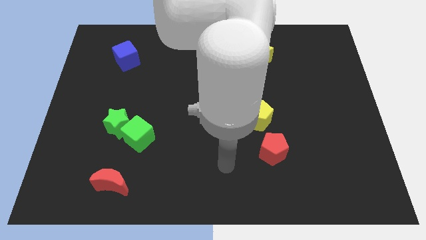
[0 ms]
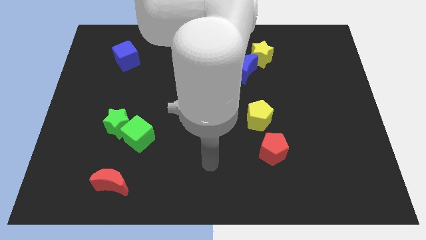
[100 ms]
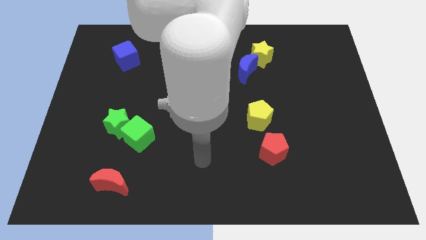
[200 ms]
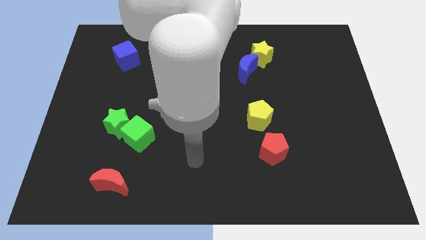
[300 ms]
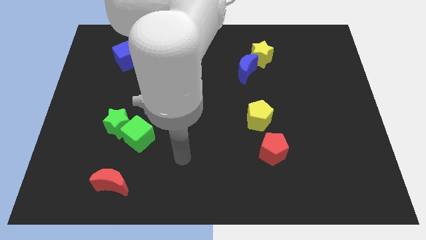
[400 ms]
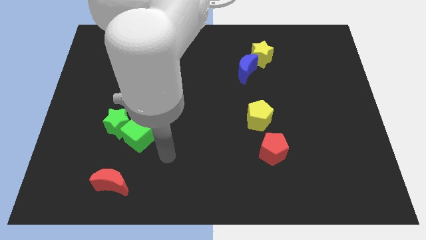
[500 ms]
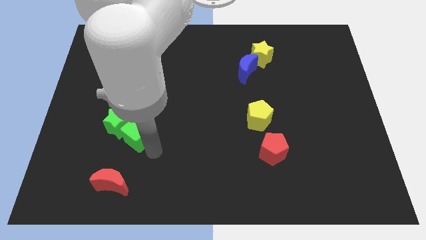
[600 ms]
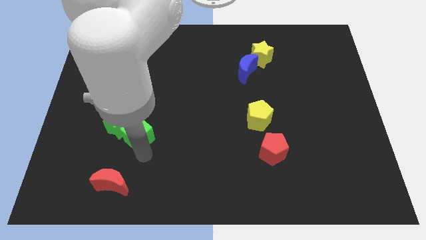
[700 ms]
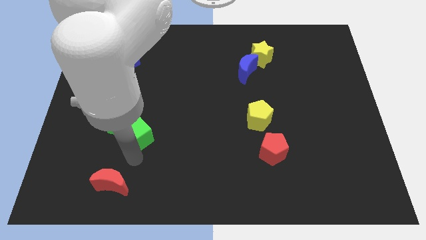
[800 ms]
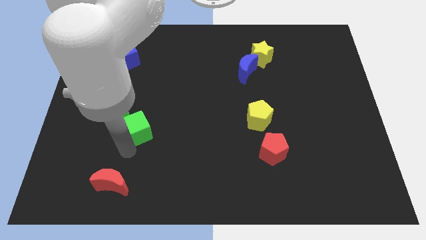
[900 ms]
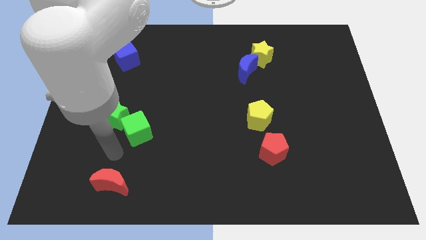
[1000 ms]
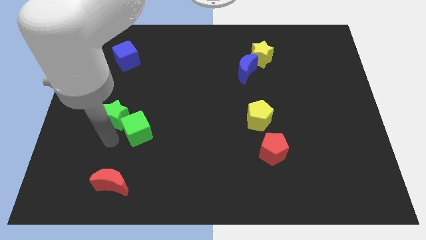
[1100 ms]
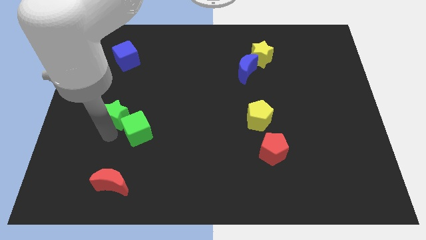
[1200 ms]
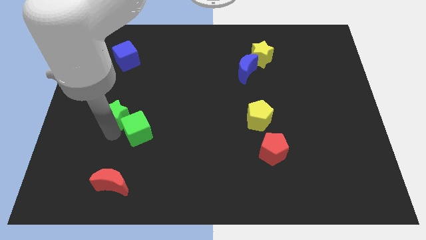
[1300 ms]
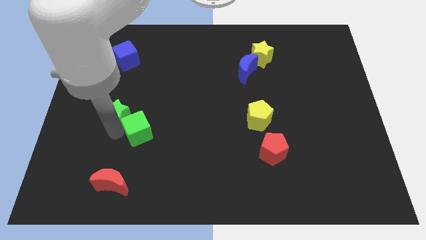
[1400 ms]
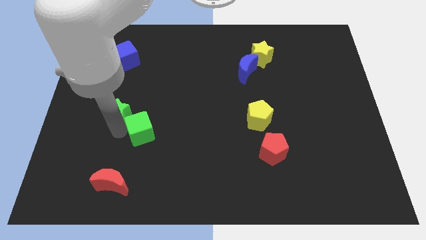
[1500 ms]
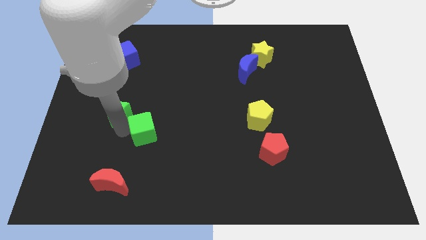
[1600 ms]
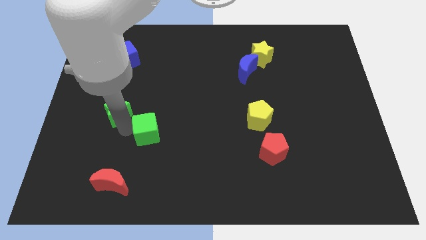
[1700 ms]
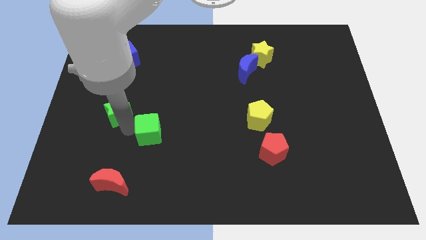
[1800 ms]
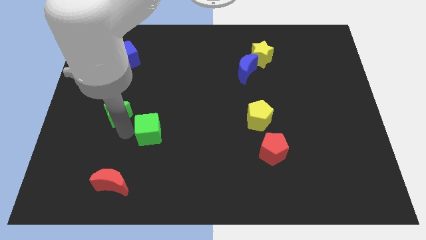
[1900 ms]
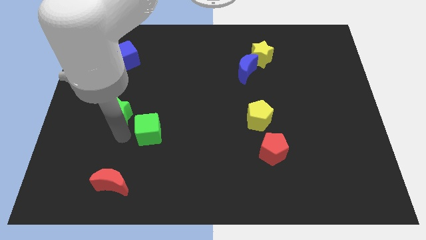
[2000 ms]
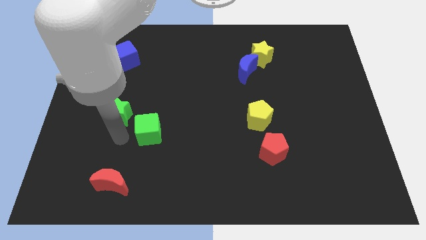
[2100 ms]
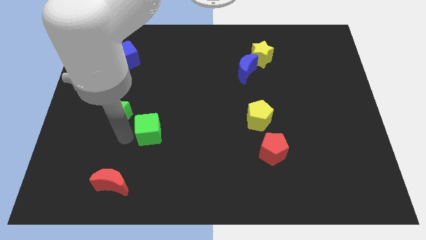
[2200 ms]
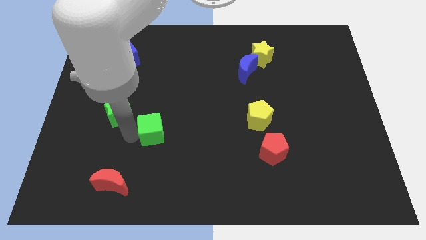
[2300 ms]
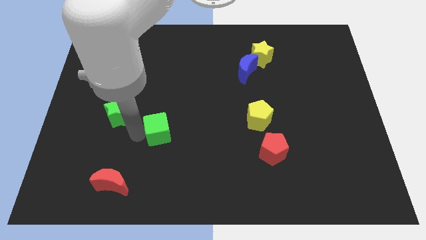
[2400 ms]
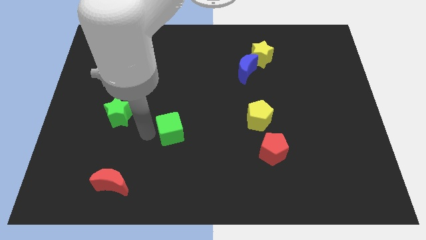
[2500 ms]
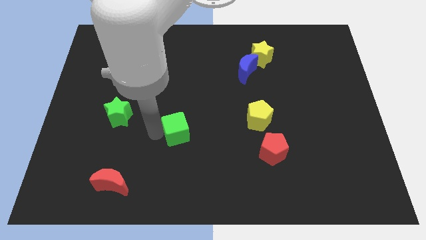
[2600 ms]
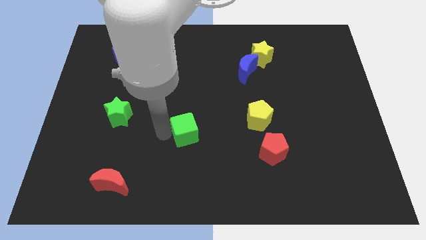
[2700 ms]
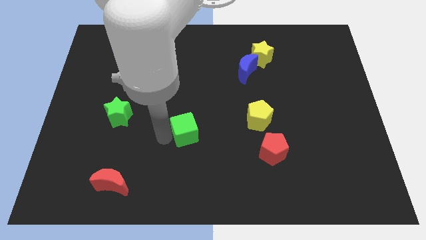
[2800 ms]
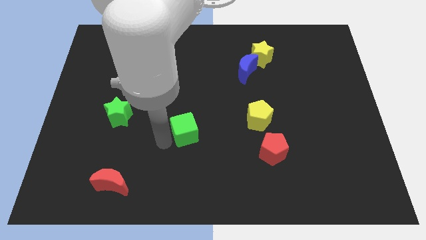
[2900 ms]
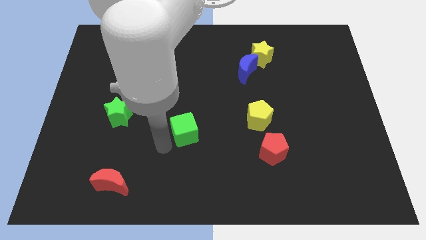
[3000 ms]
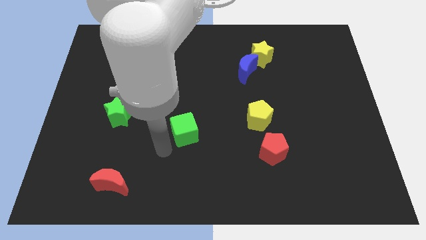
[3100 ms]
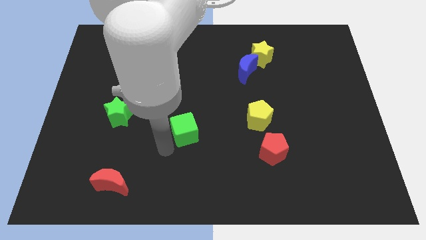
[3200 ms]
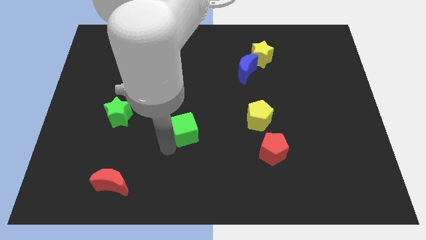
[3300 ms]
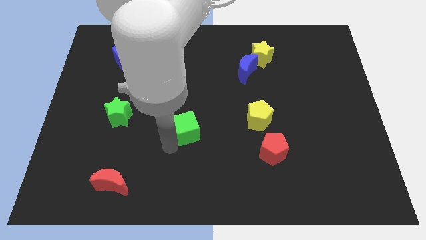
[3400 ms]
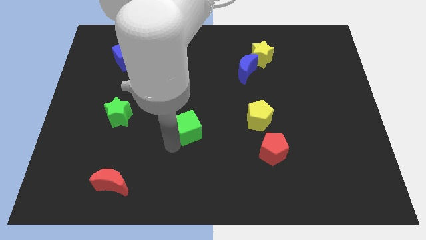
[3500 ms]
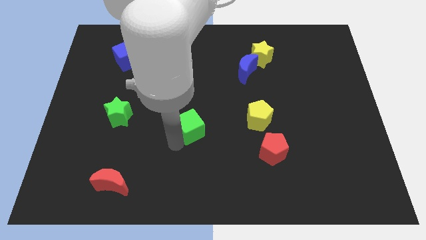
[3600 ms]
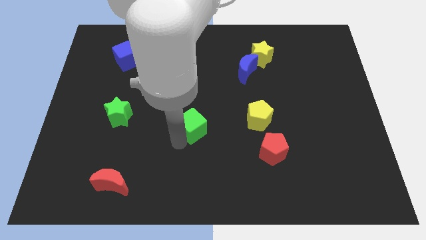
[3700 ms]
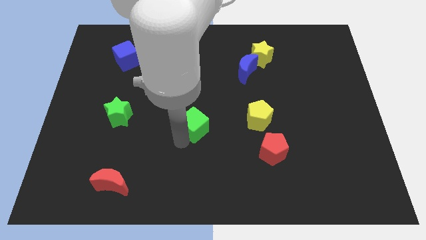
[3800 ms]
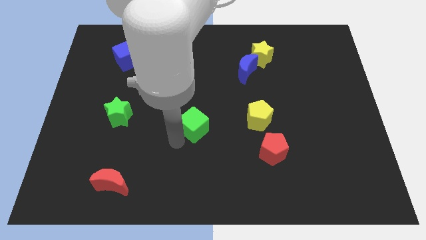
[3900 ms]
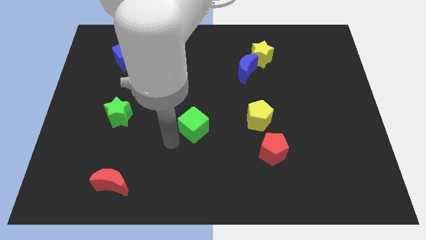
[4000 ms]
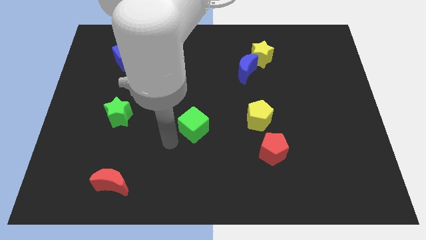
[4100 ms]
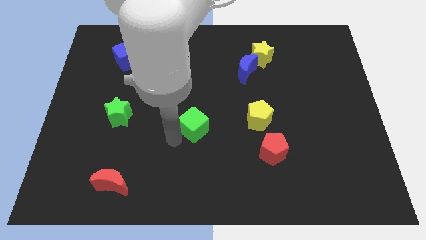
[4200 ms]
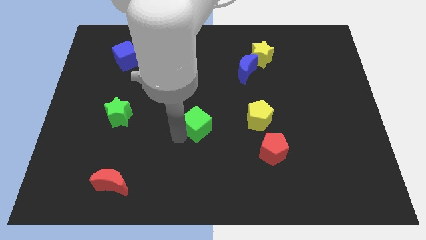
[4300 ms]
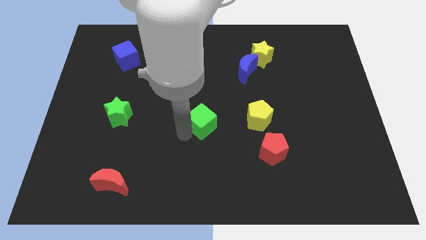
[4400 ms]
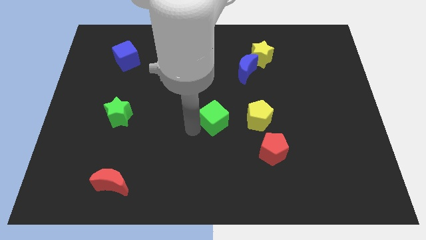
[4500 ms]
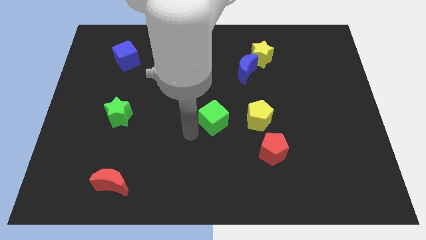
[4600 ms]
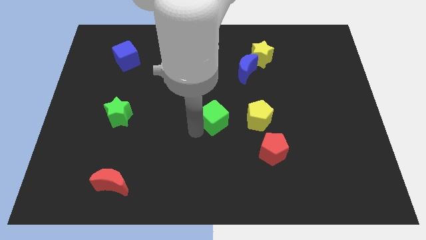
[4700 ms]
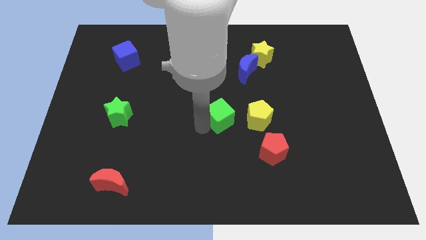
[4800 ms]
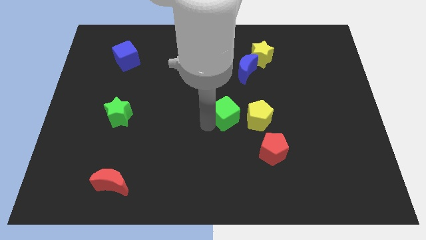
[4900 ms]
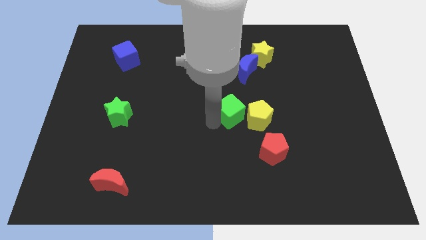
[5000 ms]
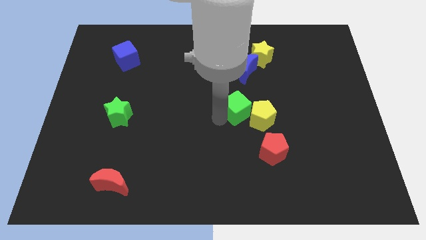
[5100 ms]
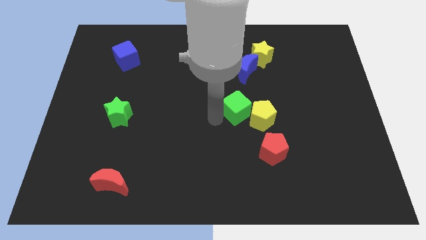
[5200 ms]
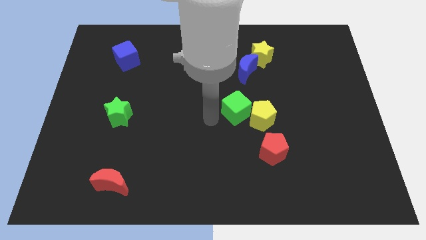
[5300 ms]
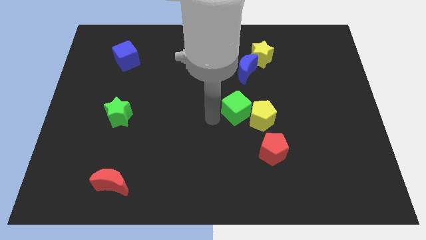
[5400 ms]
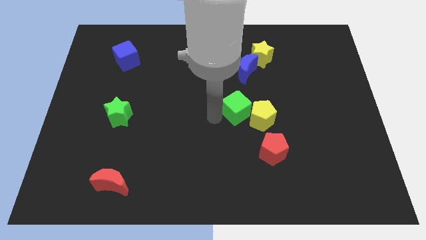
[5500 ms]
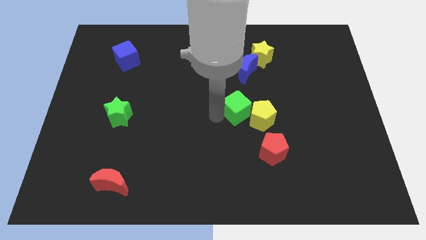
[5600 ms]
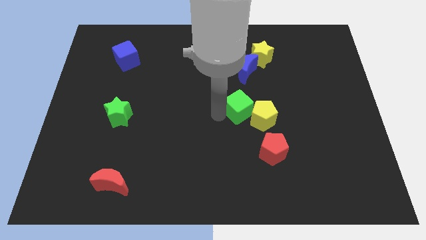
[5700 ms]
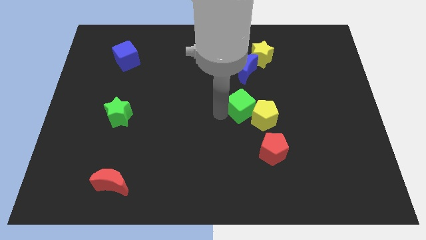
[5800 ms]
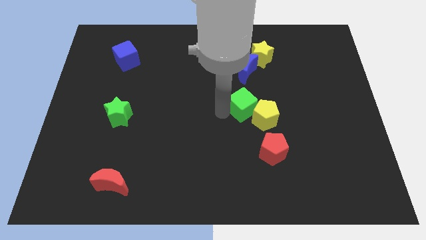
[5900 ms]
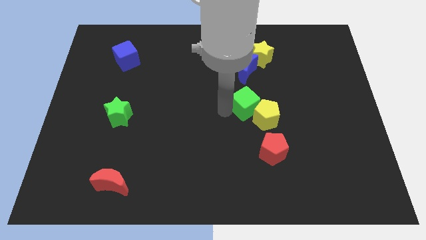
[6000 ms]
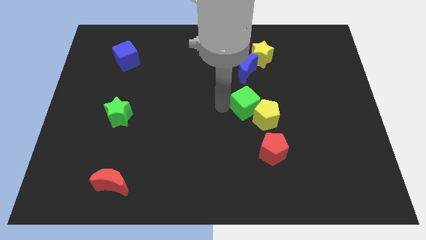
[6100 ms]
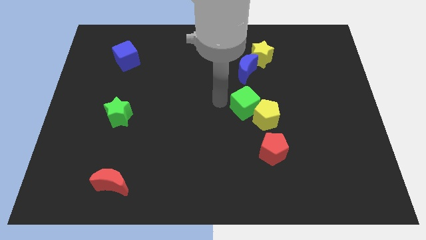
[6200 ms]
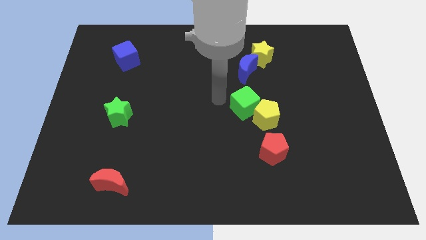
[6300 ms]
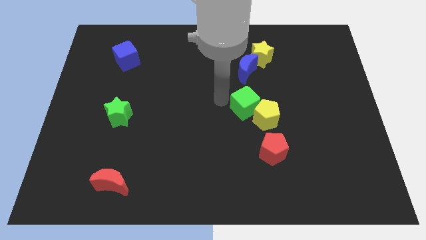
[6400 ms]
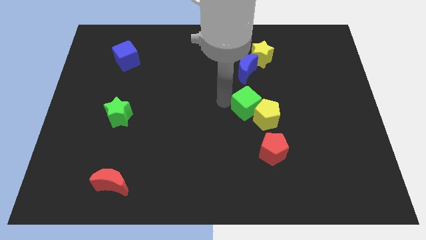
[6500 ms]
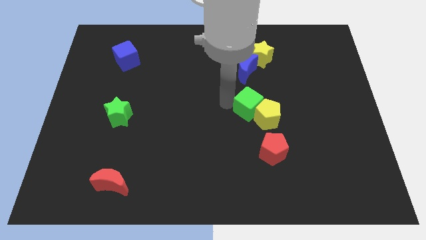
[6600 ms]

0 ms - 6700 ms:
slide the green cube above the red pentagon

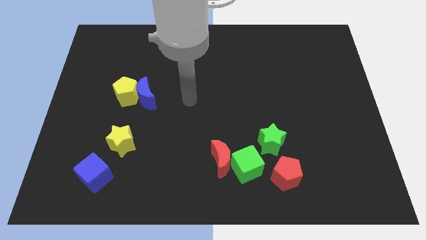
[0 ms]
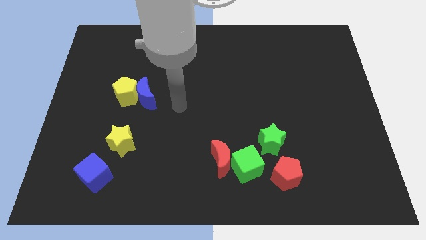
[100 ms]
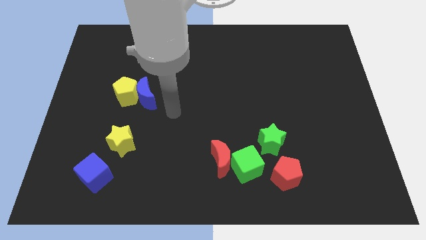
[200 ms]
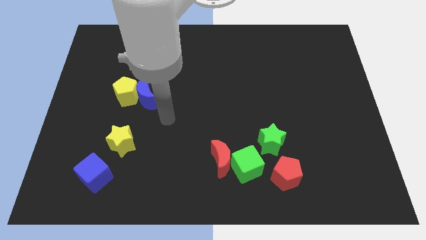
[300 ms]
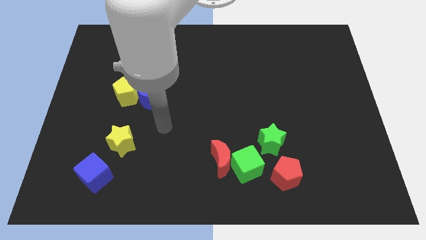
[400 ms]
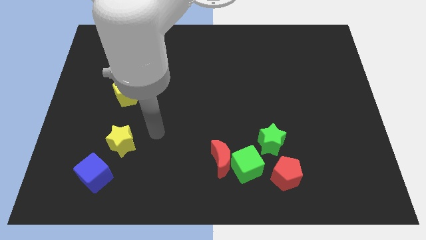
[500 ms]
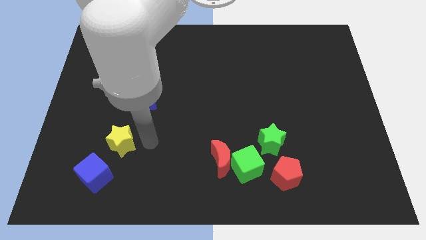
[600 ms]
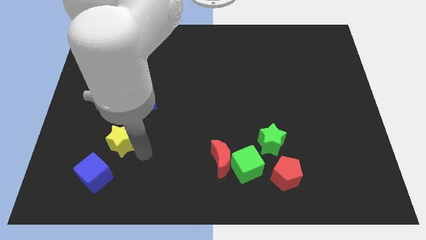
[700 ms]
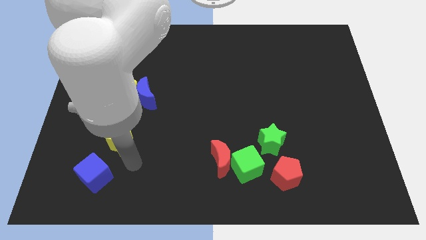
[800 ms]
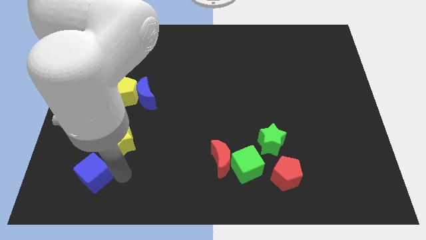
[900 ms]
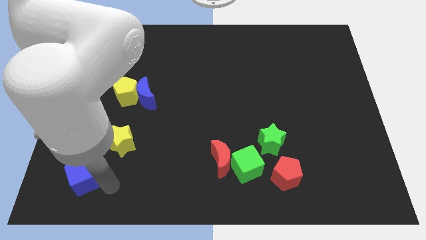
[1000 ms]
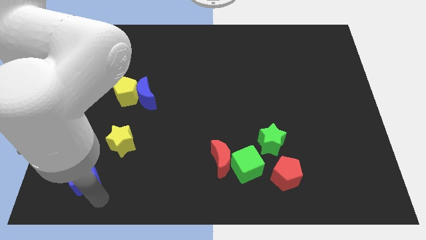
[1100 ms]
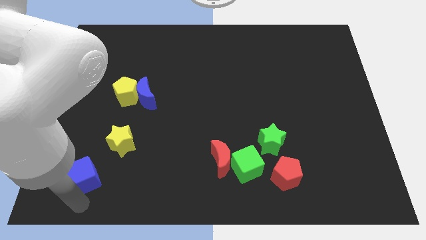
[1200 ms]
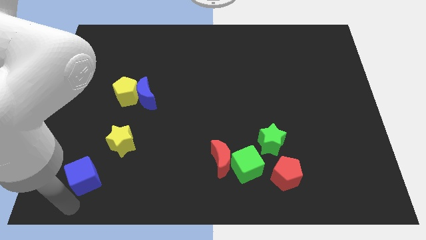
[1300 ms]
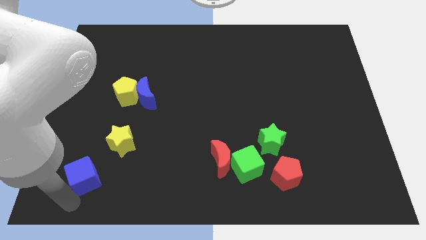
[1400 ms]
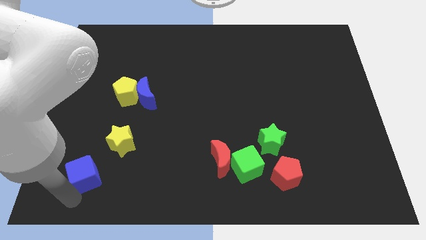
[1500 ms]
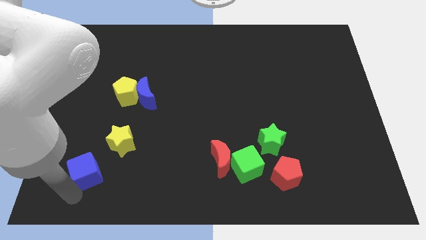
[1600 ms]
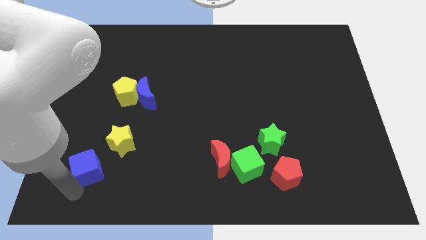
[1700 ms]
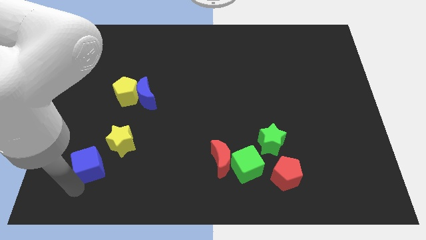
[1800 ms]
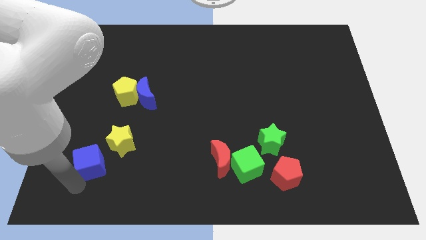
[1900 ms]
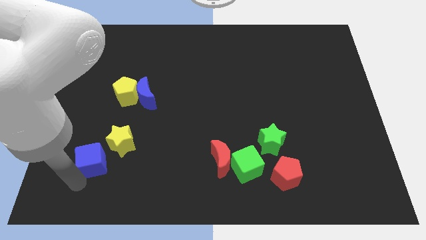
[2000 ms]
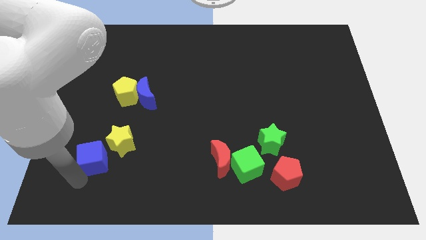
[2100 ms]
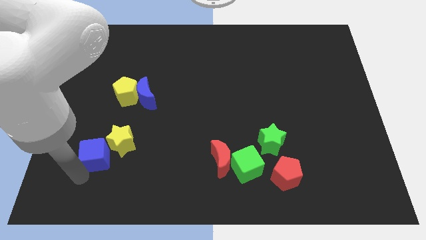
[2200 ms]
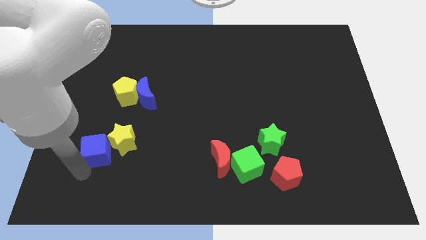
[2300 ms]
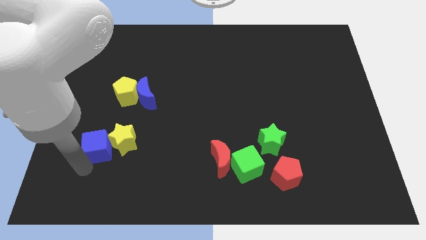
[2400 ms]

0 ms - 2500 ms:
put the blue cube to the top left of the yellow star
